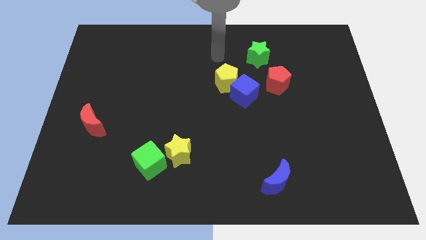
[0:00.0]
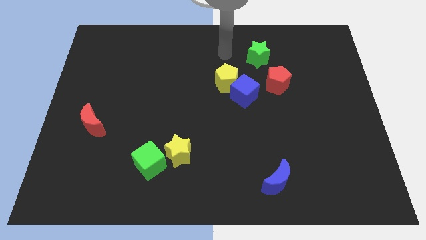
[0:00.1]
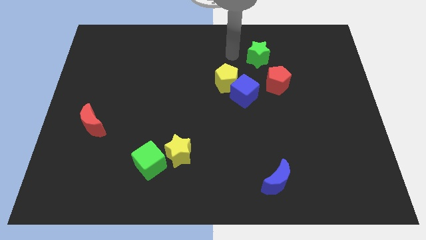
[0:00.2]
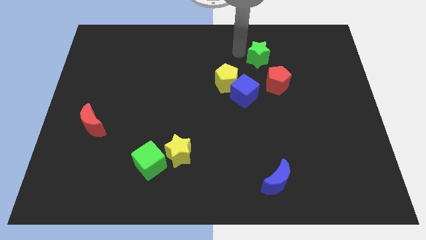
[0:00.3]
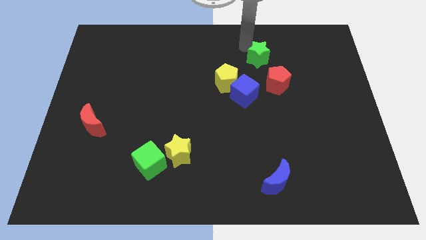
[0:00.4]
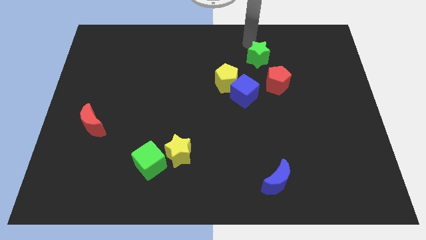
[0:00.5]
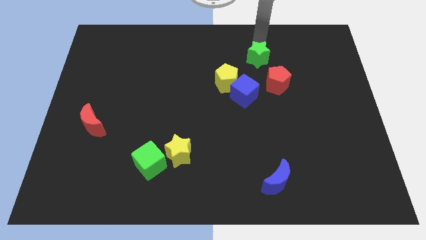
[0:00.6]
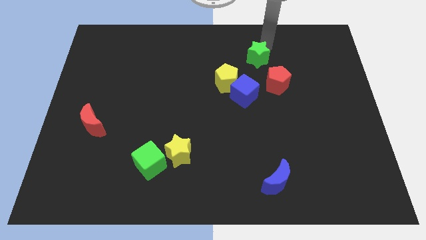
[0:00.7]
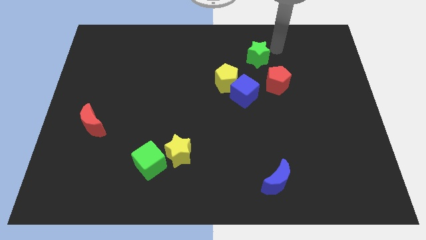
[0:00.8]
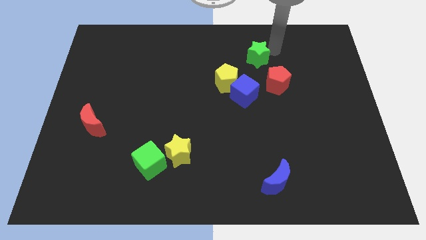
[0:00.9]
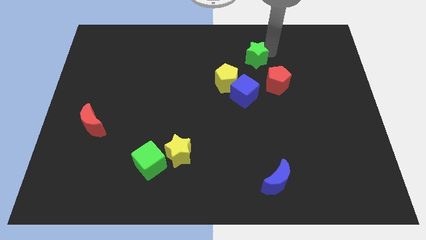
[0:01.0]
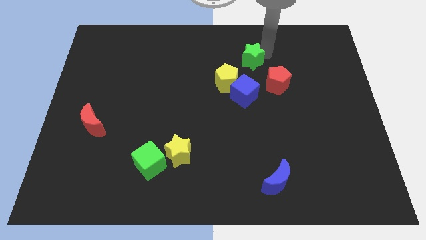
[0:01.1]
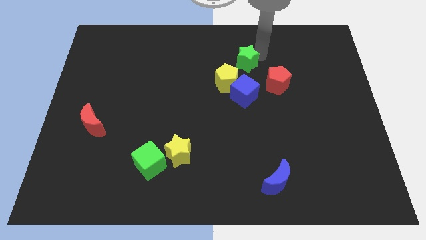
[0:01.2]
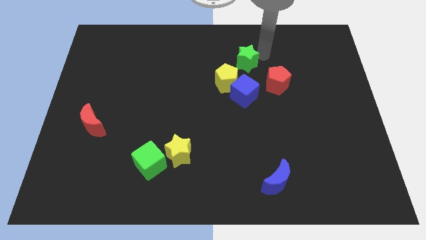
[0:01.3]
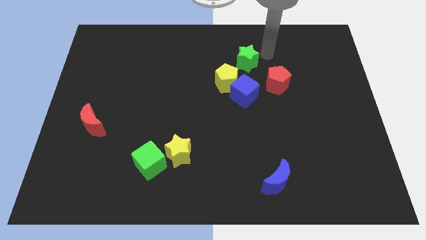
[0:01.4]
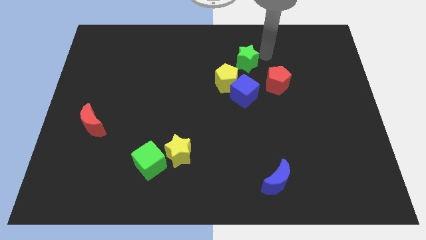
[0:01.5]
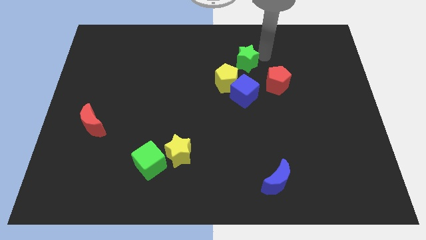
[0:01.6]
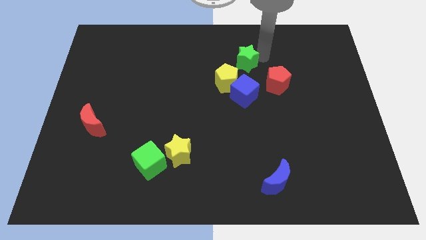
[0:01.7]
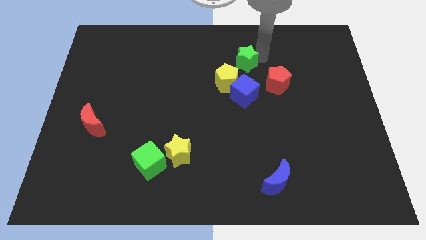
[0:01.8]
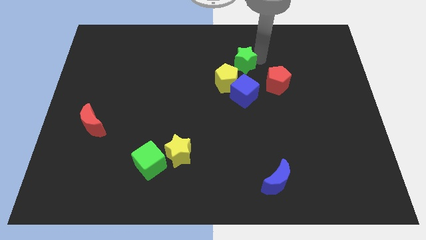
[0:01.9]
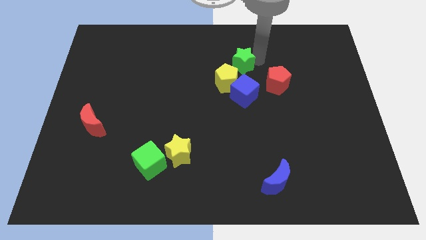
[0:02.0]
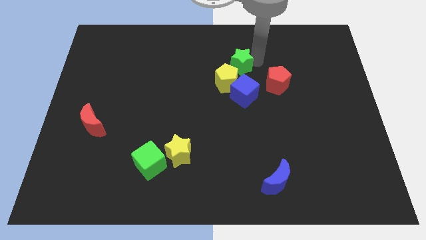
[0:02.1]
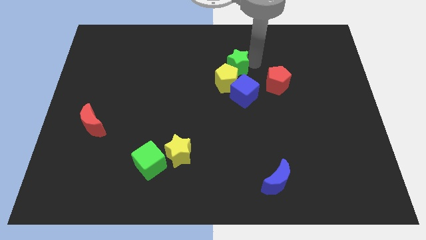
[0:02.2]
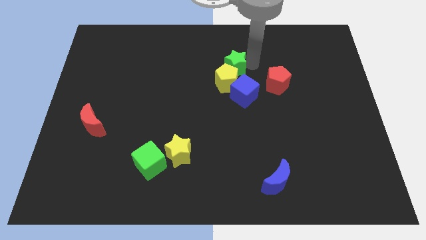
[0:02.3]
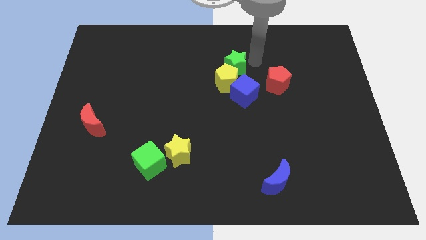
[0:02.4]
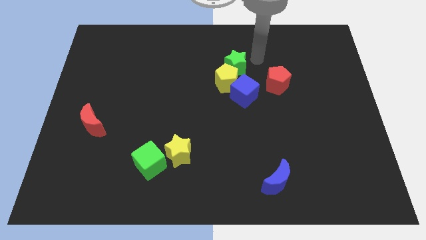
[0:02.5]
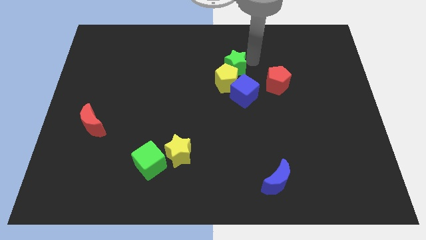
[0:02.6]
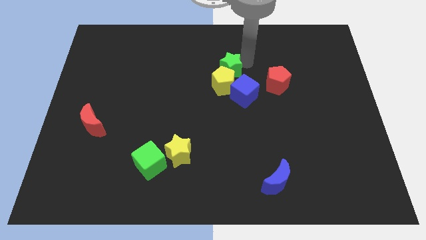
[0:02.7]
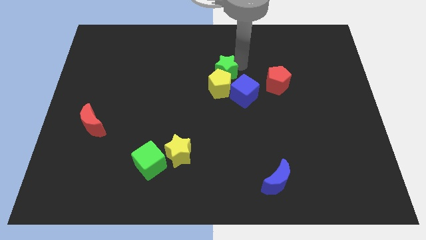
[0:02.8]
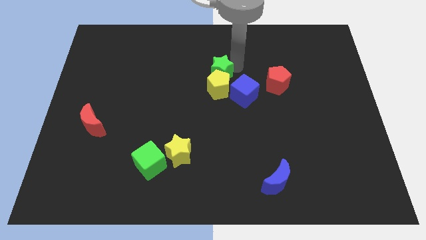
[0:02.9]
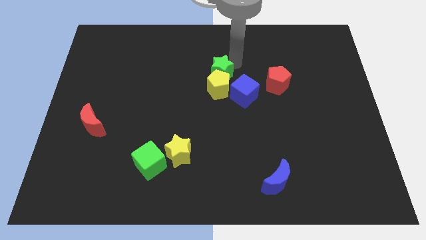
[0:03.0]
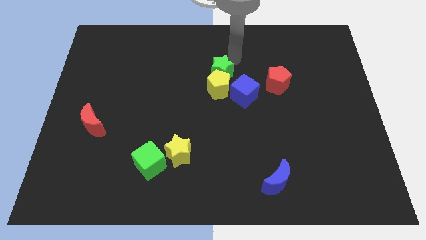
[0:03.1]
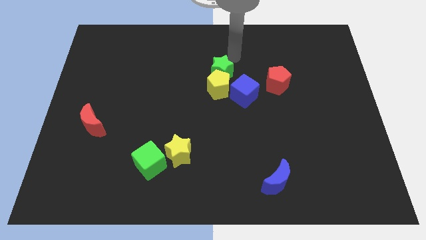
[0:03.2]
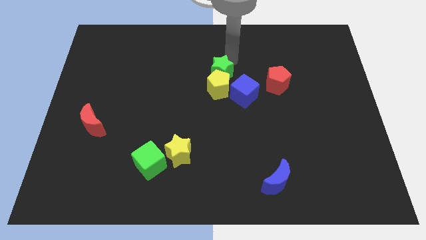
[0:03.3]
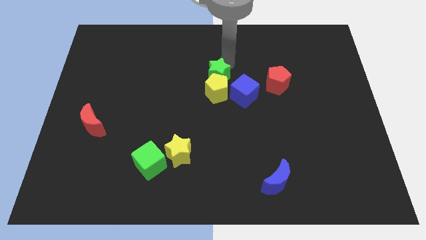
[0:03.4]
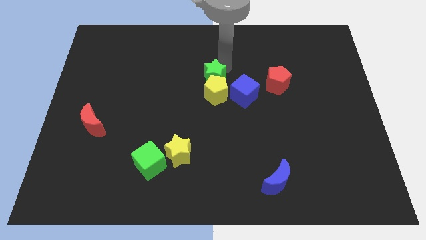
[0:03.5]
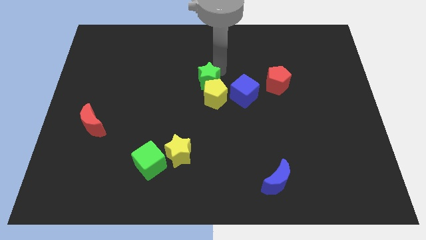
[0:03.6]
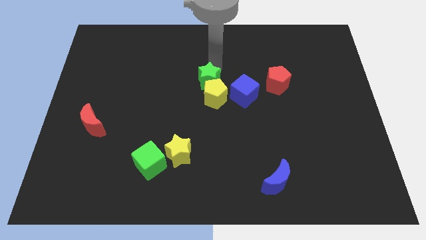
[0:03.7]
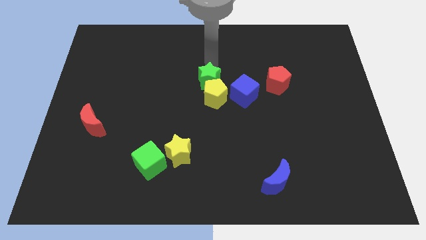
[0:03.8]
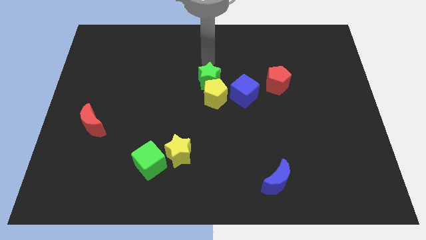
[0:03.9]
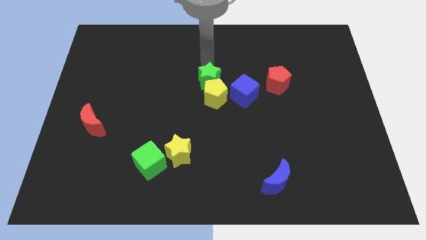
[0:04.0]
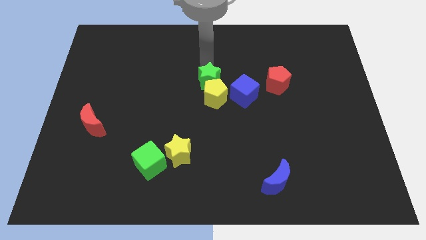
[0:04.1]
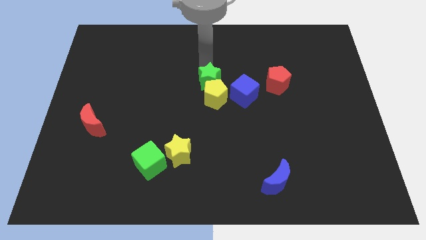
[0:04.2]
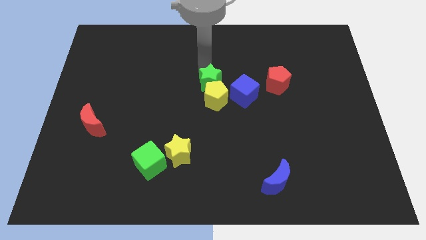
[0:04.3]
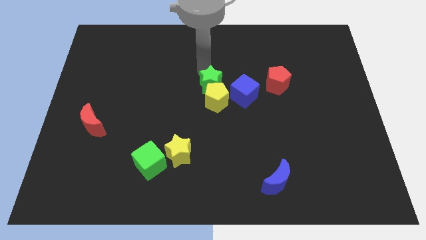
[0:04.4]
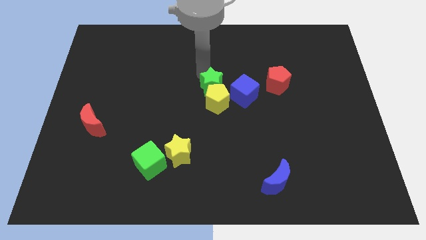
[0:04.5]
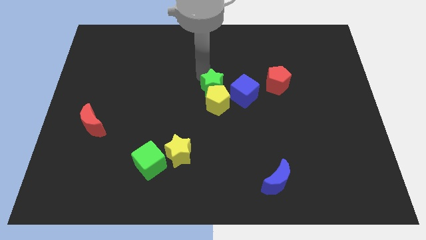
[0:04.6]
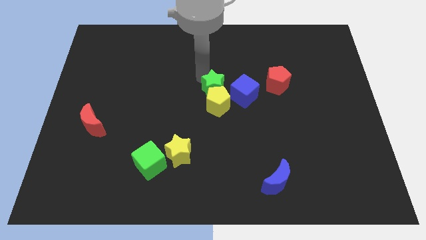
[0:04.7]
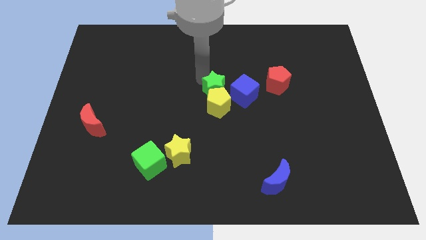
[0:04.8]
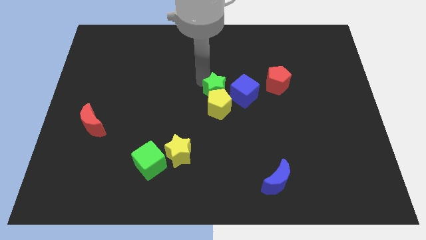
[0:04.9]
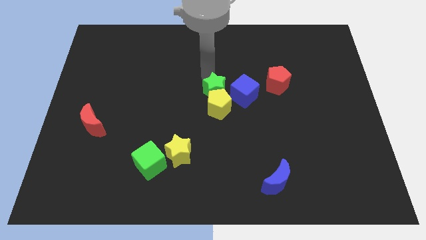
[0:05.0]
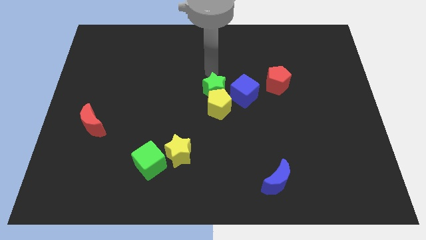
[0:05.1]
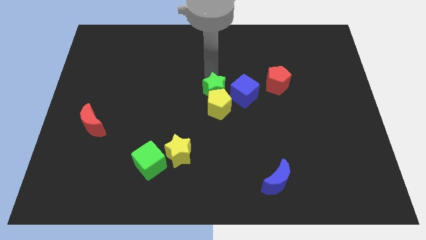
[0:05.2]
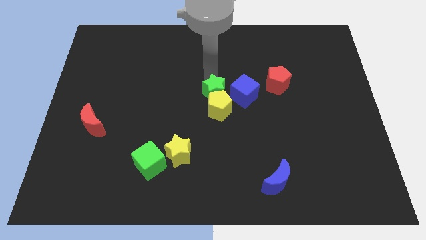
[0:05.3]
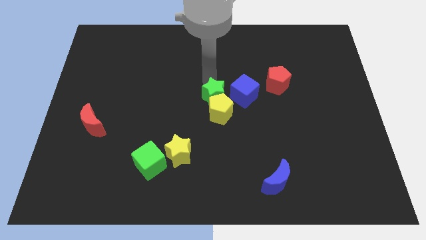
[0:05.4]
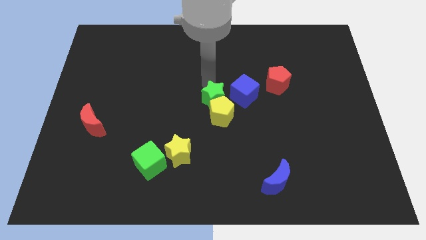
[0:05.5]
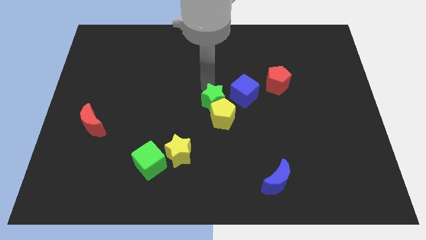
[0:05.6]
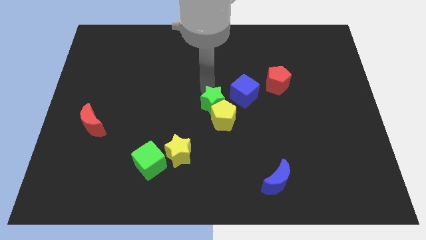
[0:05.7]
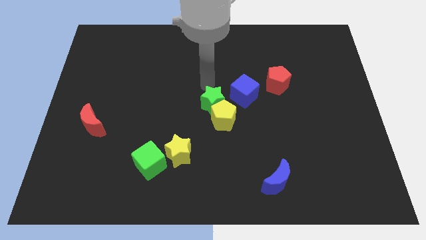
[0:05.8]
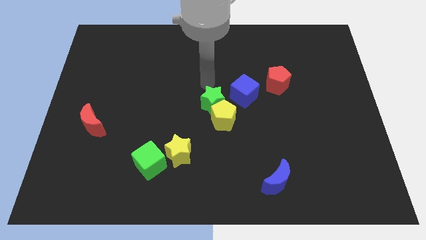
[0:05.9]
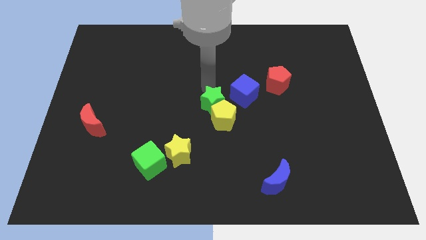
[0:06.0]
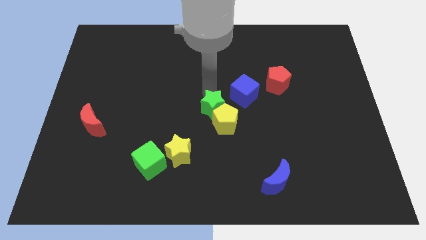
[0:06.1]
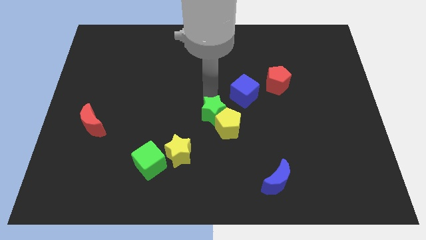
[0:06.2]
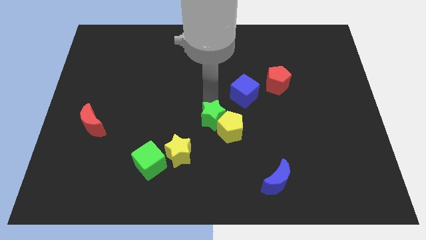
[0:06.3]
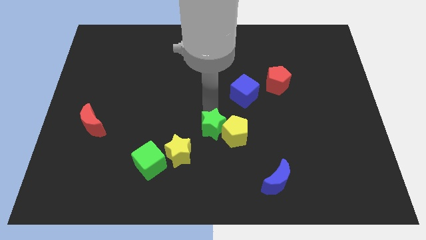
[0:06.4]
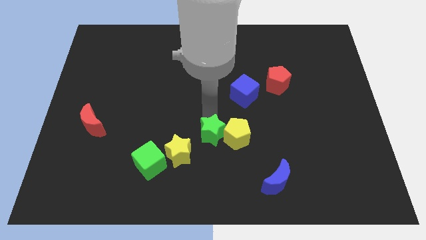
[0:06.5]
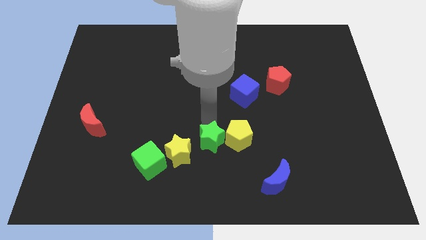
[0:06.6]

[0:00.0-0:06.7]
push the green star to the right of the yellow star
